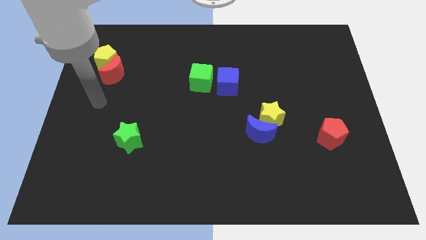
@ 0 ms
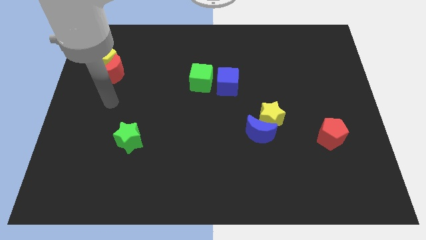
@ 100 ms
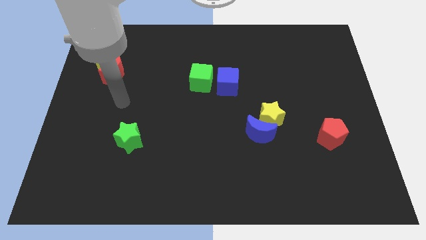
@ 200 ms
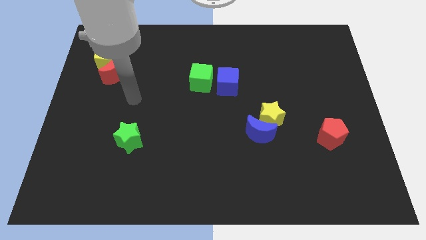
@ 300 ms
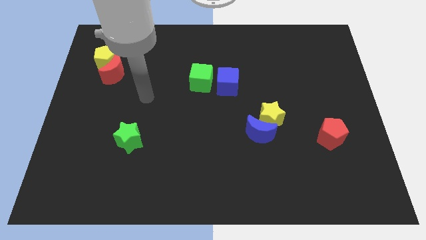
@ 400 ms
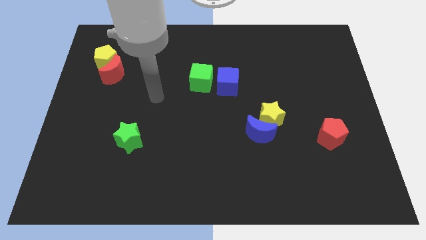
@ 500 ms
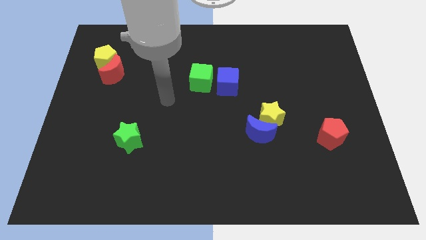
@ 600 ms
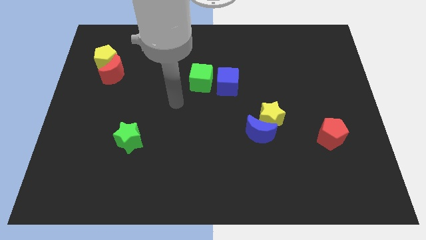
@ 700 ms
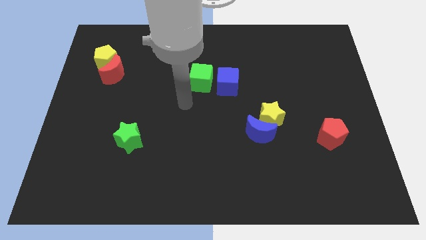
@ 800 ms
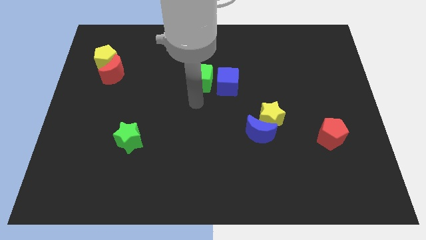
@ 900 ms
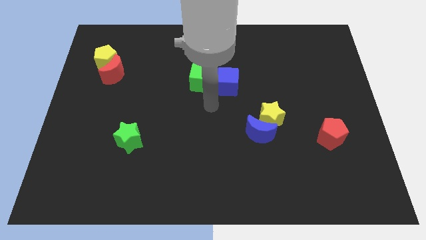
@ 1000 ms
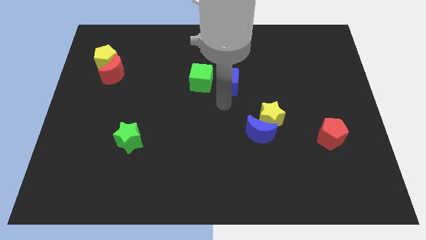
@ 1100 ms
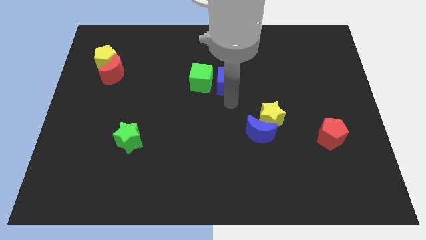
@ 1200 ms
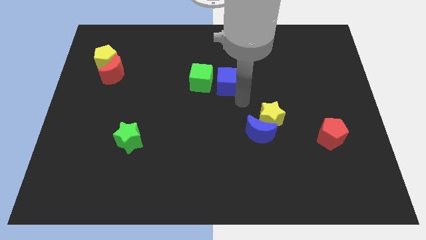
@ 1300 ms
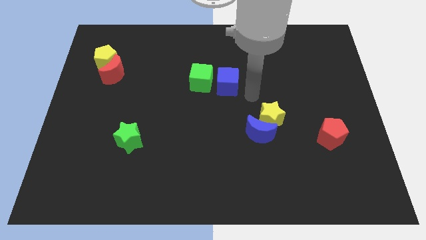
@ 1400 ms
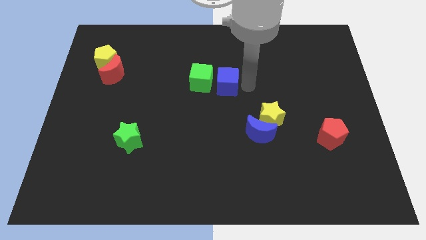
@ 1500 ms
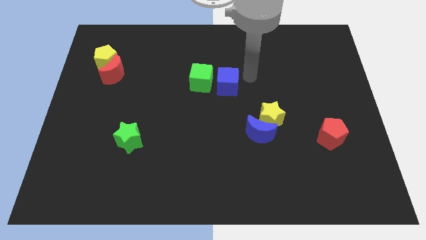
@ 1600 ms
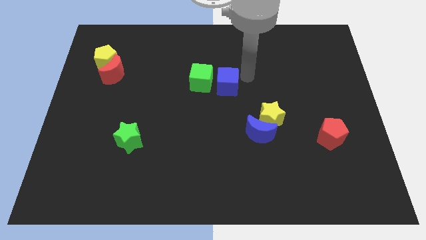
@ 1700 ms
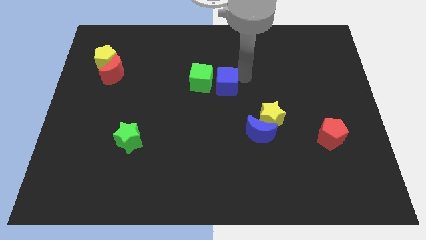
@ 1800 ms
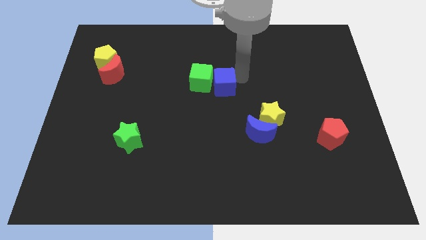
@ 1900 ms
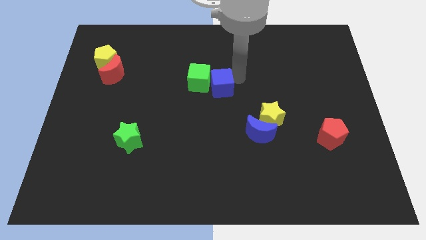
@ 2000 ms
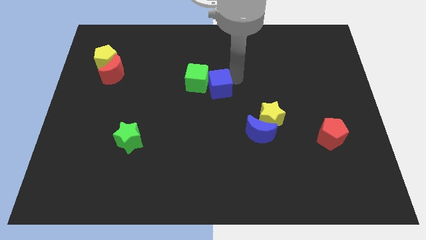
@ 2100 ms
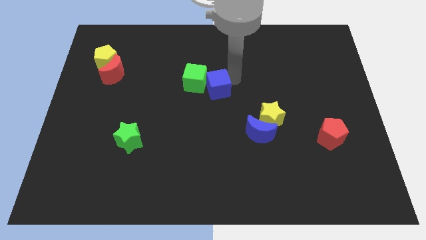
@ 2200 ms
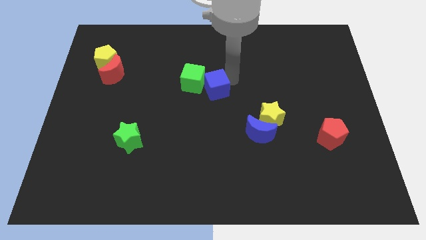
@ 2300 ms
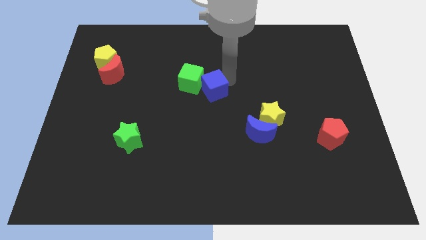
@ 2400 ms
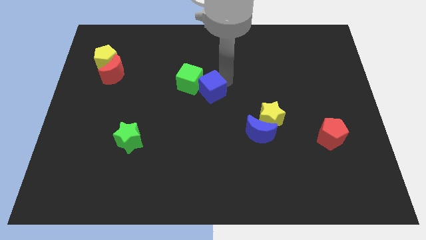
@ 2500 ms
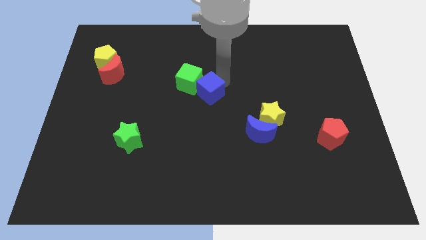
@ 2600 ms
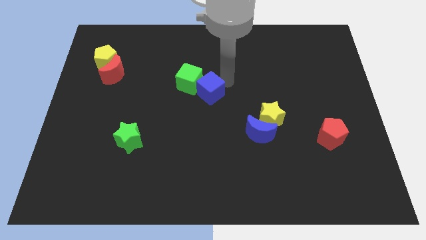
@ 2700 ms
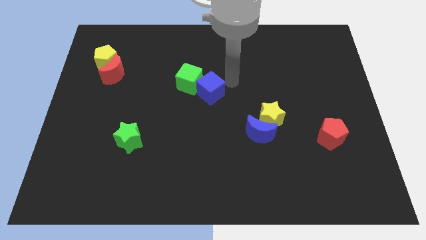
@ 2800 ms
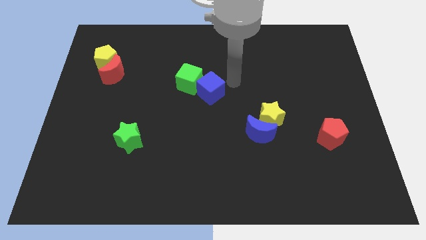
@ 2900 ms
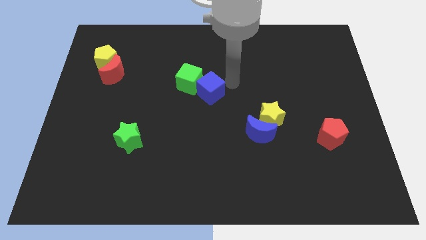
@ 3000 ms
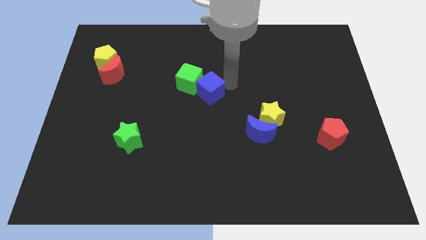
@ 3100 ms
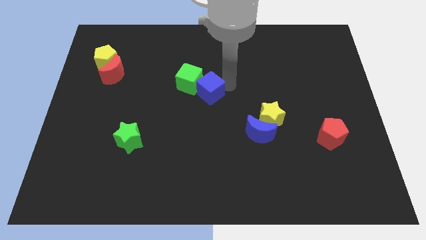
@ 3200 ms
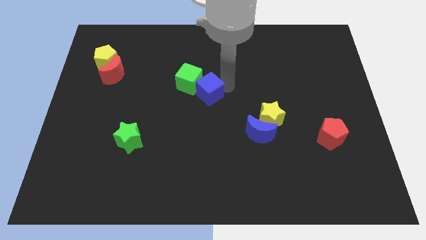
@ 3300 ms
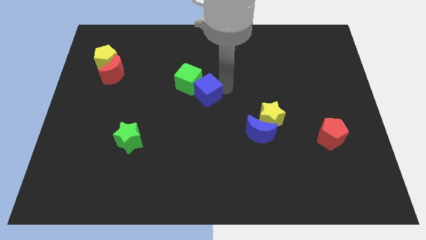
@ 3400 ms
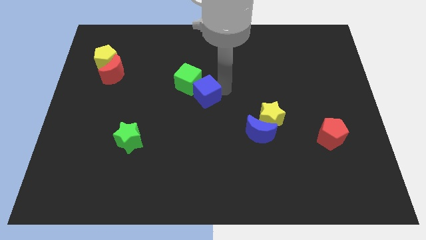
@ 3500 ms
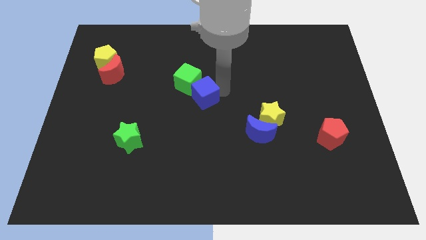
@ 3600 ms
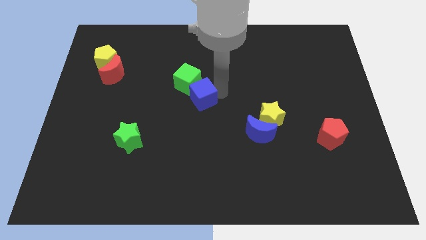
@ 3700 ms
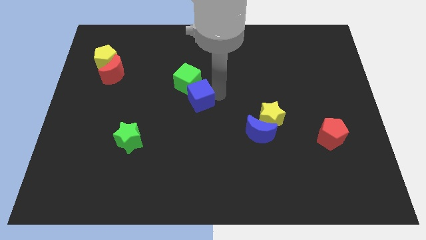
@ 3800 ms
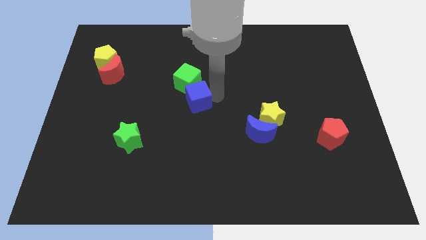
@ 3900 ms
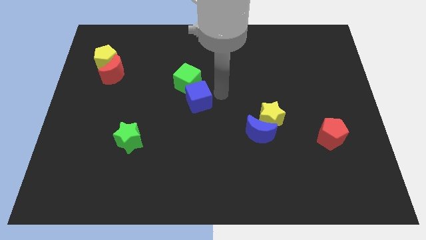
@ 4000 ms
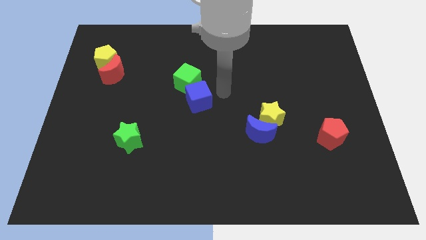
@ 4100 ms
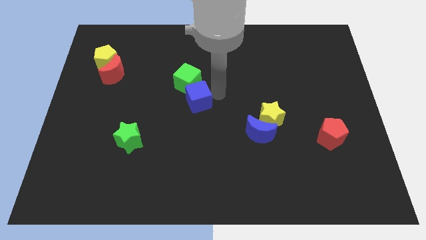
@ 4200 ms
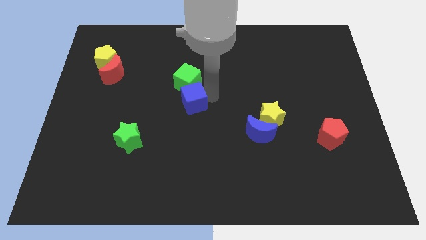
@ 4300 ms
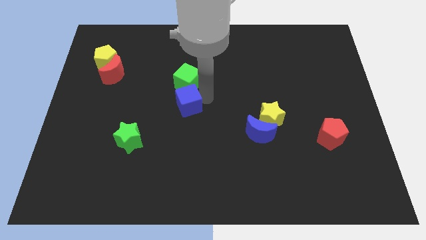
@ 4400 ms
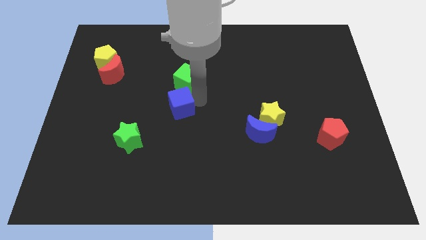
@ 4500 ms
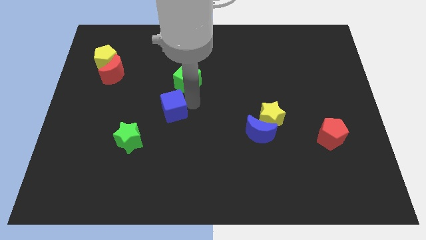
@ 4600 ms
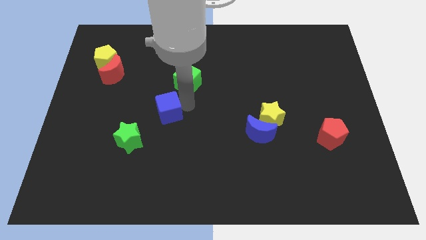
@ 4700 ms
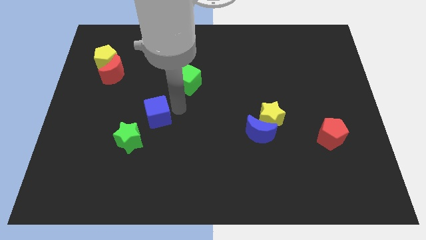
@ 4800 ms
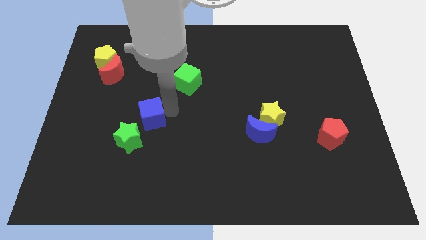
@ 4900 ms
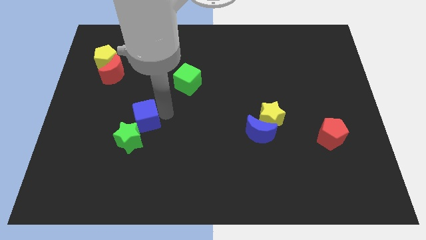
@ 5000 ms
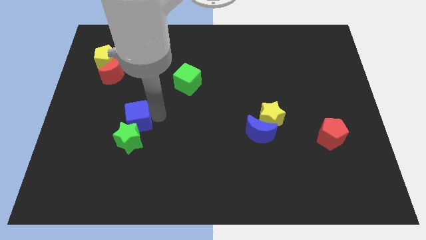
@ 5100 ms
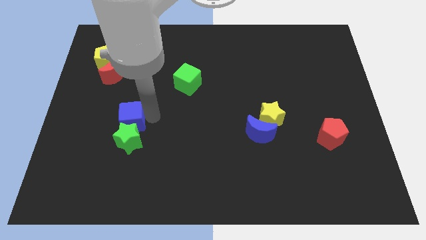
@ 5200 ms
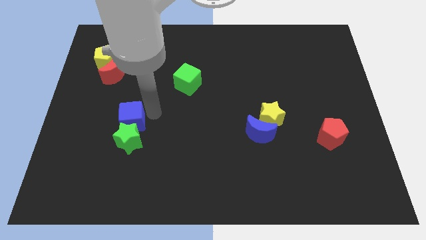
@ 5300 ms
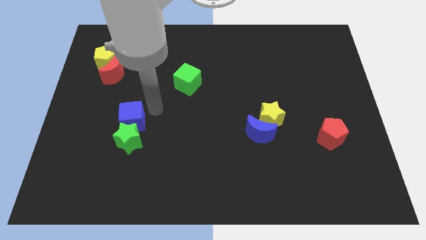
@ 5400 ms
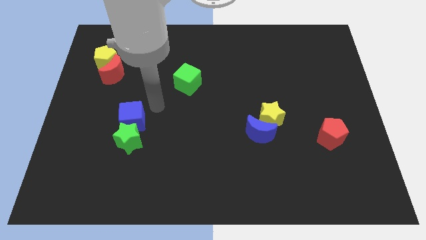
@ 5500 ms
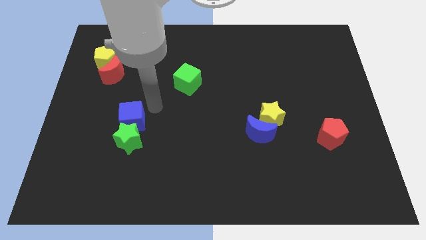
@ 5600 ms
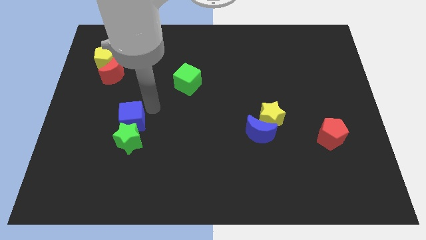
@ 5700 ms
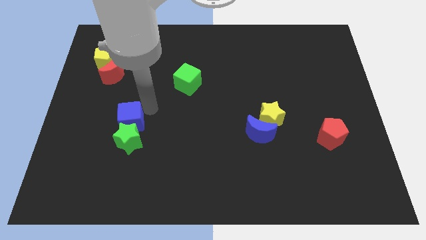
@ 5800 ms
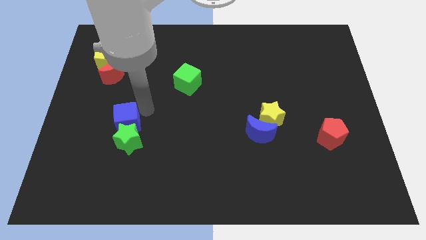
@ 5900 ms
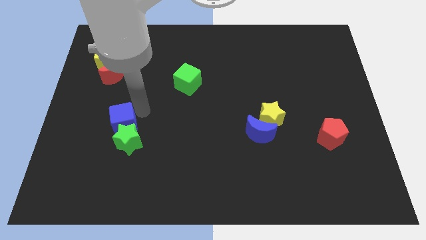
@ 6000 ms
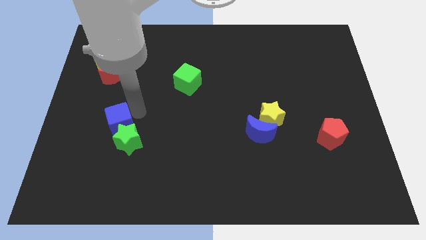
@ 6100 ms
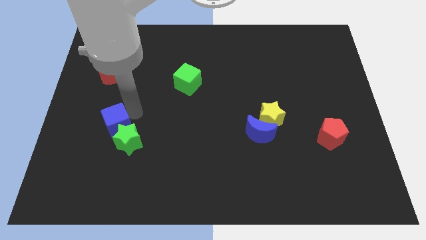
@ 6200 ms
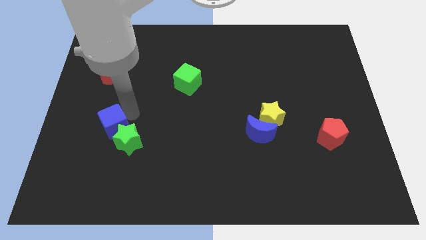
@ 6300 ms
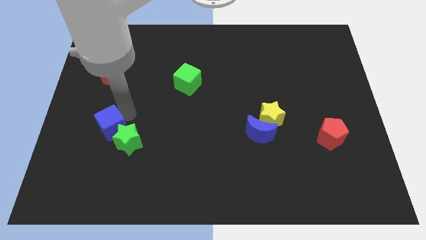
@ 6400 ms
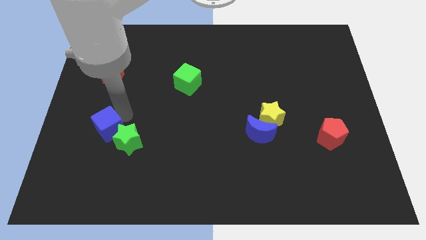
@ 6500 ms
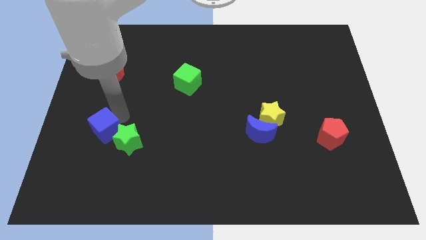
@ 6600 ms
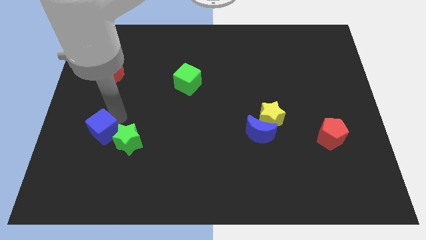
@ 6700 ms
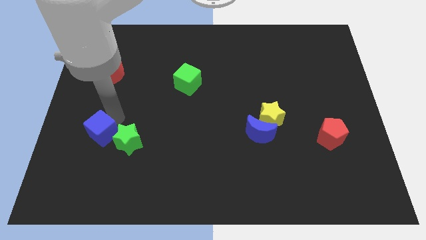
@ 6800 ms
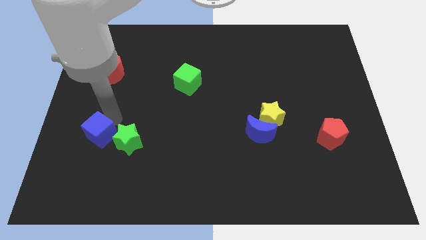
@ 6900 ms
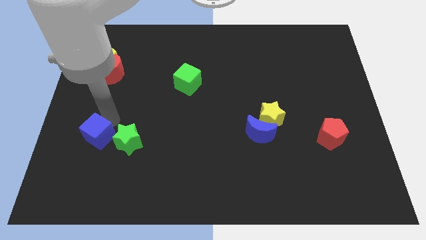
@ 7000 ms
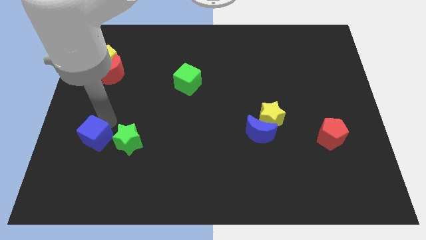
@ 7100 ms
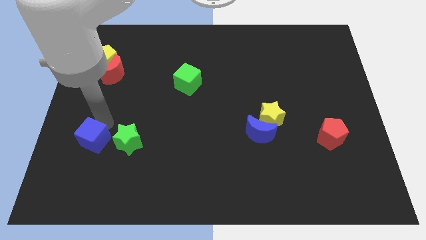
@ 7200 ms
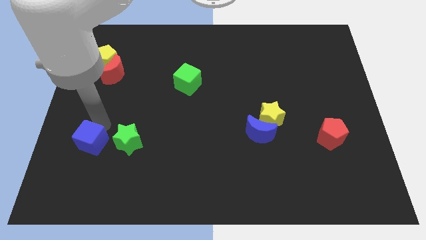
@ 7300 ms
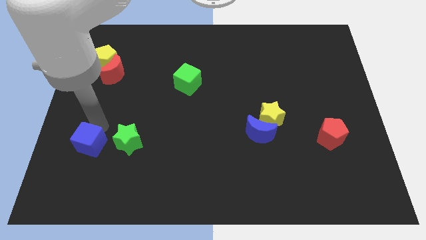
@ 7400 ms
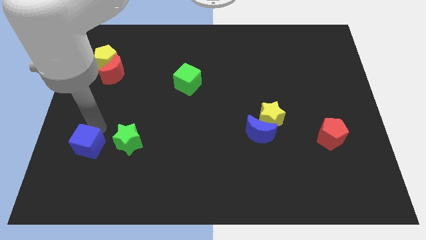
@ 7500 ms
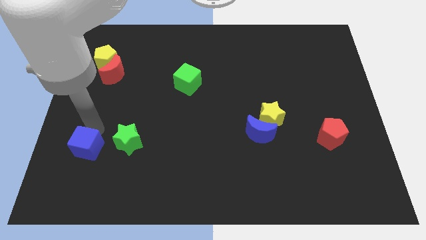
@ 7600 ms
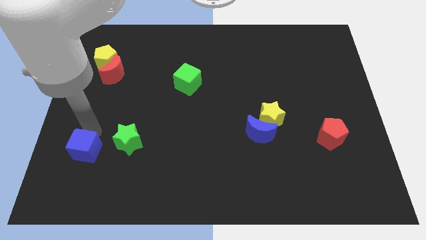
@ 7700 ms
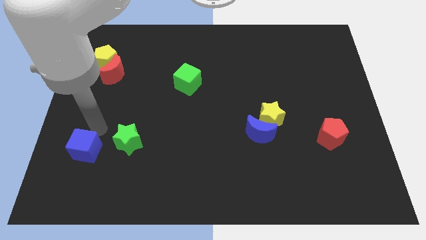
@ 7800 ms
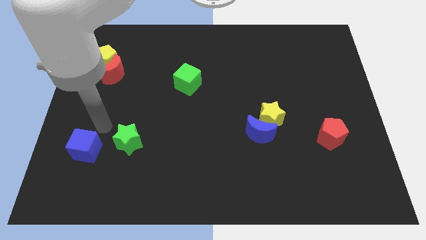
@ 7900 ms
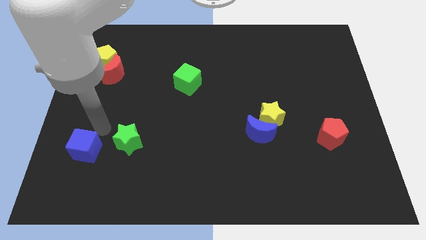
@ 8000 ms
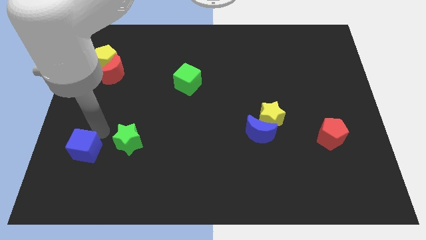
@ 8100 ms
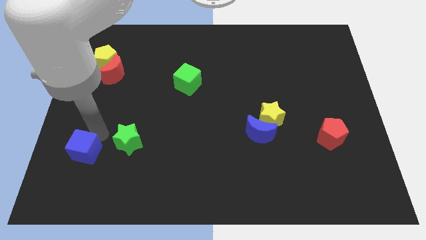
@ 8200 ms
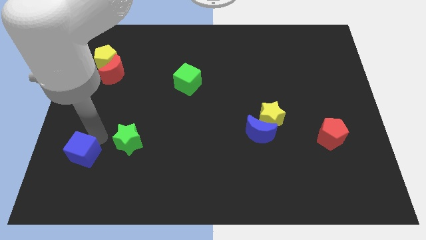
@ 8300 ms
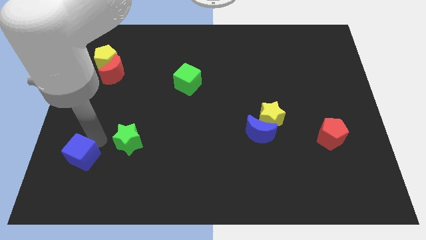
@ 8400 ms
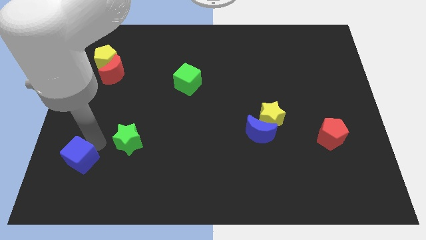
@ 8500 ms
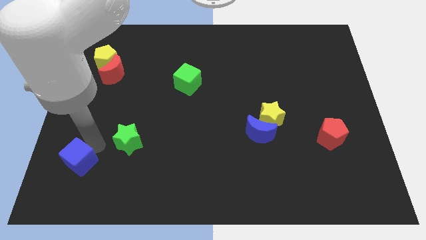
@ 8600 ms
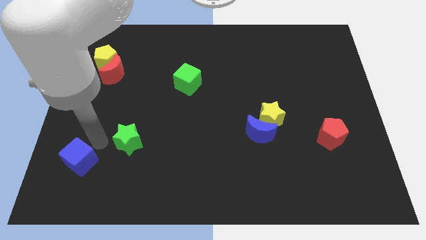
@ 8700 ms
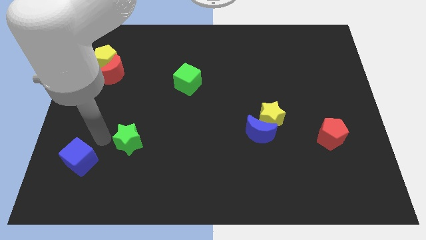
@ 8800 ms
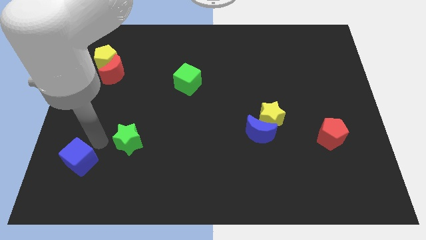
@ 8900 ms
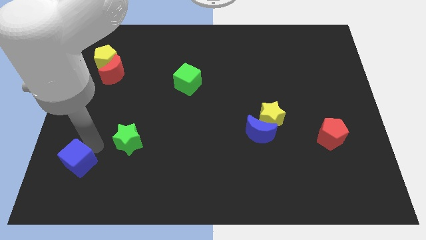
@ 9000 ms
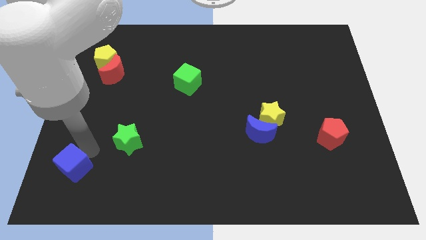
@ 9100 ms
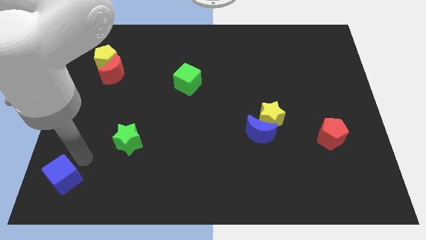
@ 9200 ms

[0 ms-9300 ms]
slide the blue cube to the lower left corner
